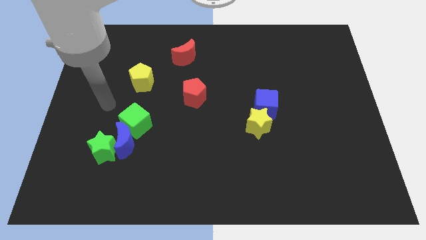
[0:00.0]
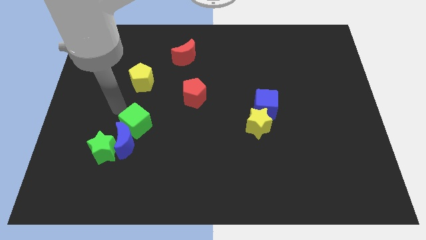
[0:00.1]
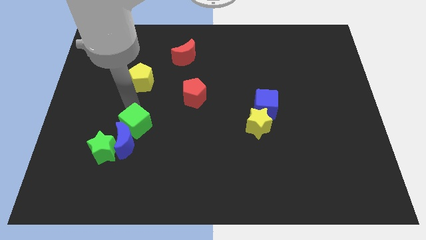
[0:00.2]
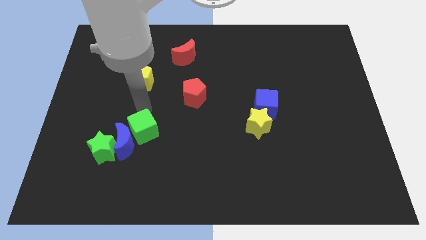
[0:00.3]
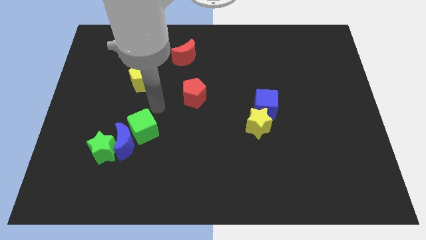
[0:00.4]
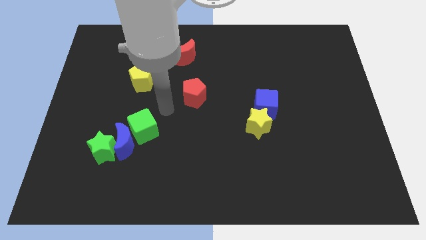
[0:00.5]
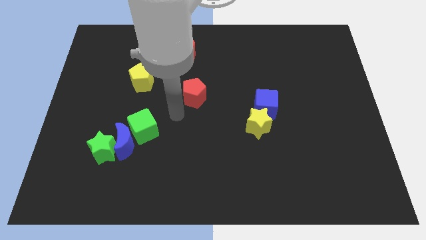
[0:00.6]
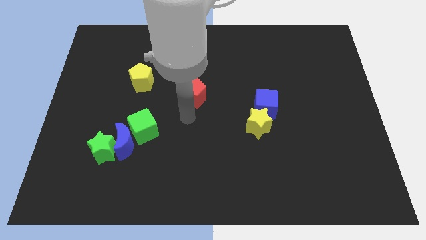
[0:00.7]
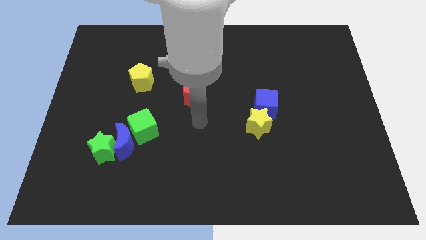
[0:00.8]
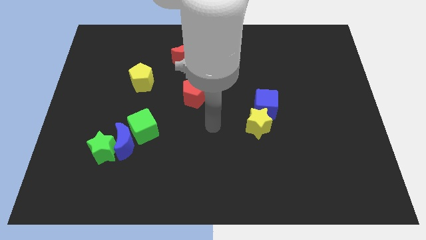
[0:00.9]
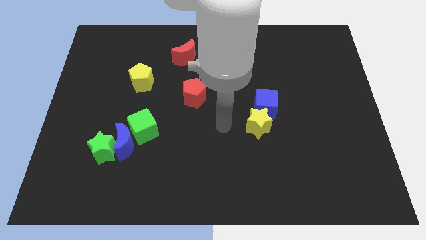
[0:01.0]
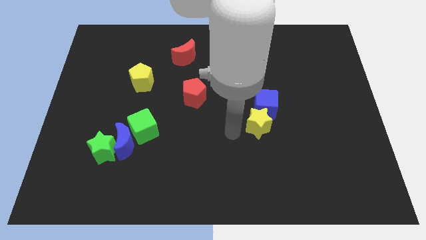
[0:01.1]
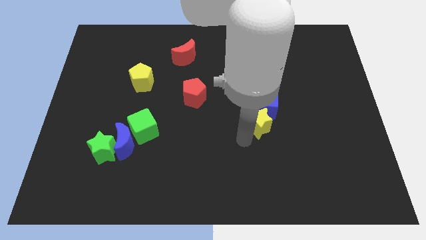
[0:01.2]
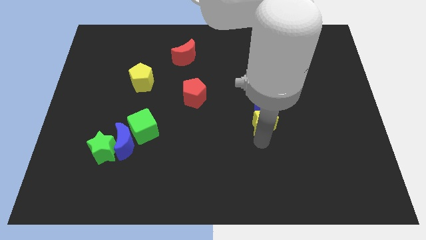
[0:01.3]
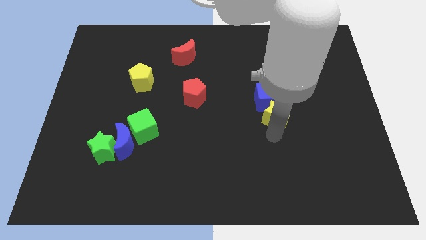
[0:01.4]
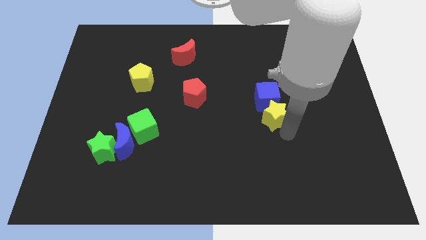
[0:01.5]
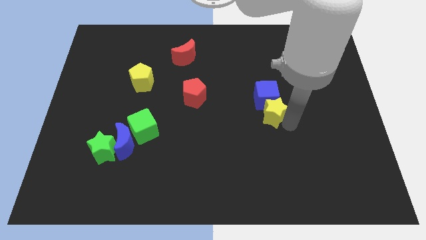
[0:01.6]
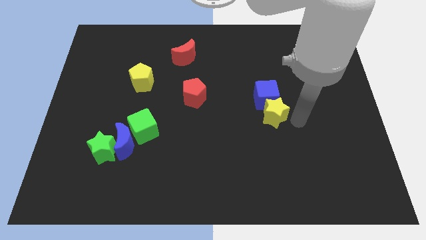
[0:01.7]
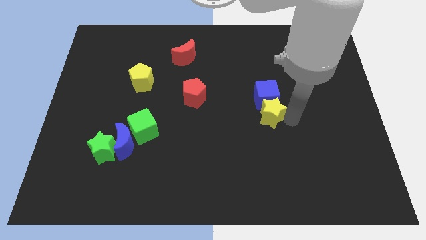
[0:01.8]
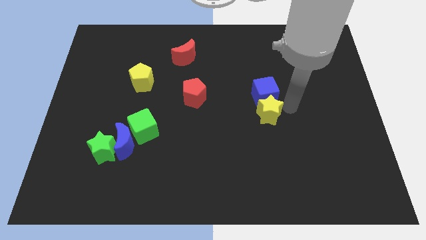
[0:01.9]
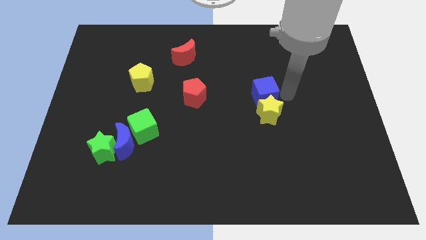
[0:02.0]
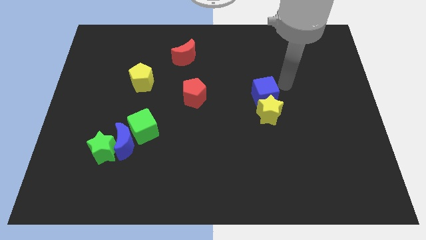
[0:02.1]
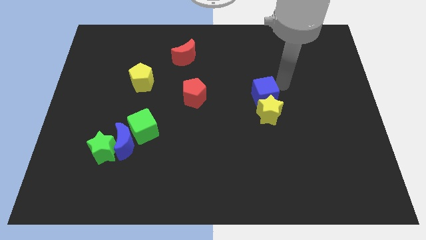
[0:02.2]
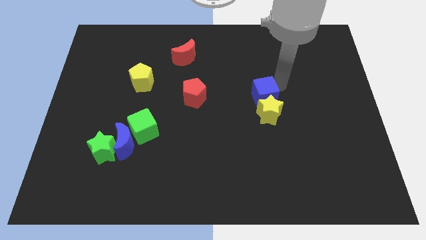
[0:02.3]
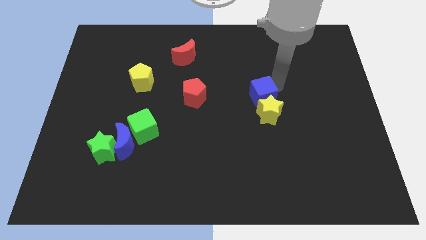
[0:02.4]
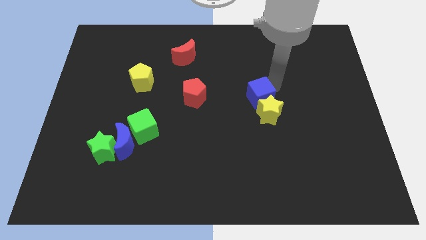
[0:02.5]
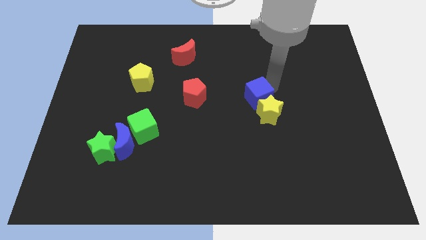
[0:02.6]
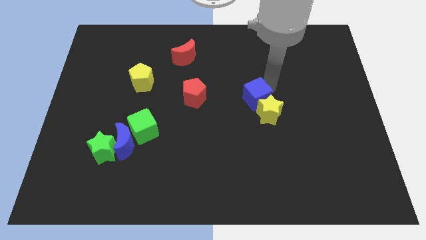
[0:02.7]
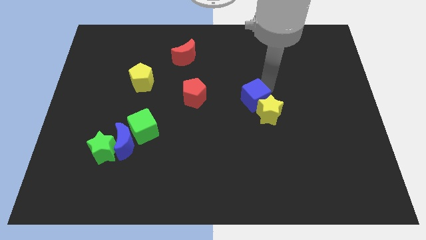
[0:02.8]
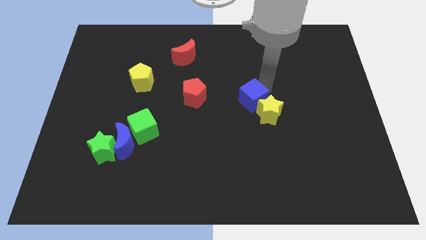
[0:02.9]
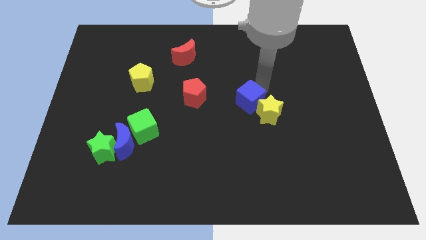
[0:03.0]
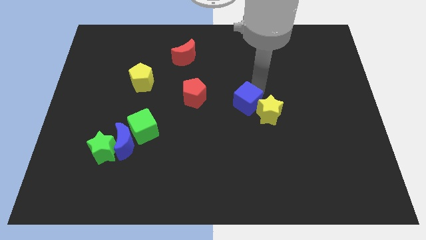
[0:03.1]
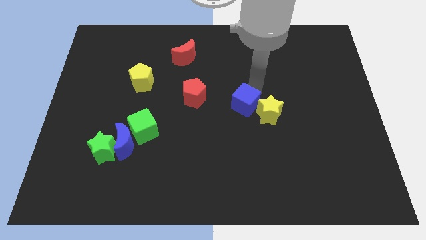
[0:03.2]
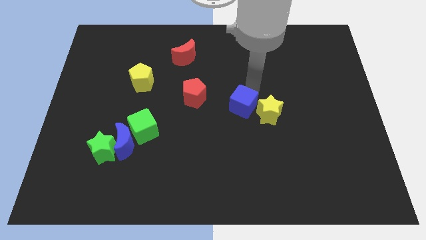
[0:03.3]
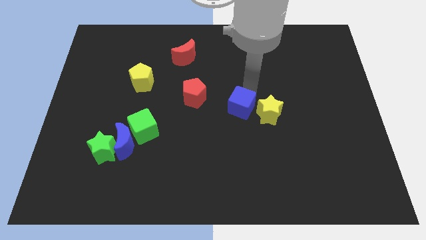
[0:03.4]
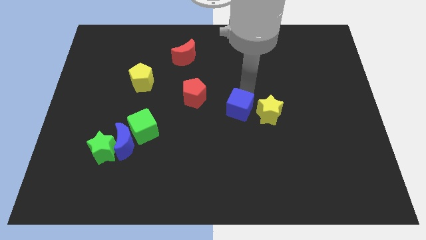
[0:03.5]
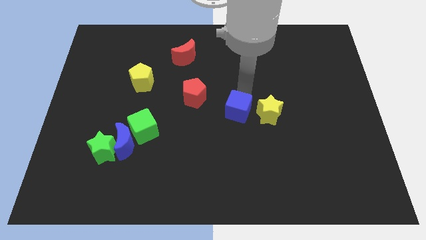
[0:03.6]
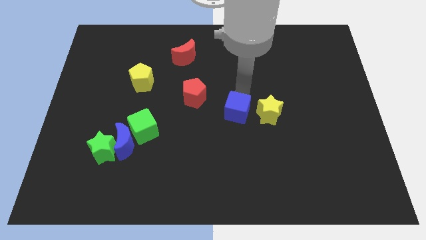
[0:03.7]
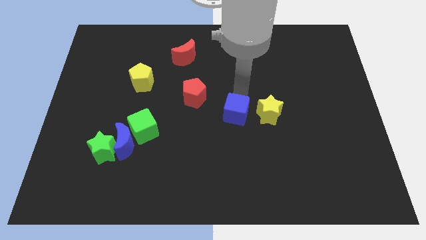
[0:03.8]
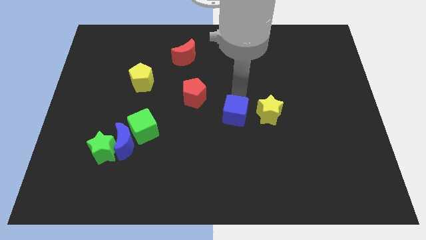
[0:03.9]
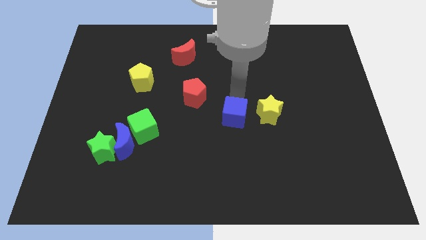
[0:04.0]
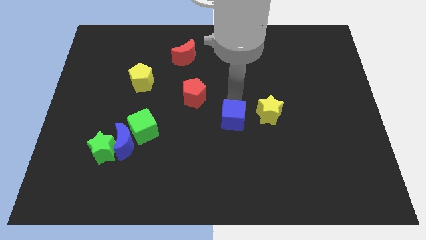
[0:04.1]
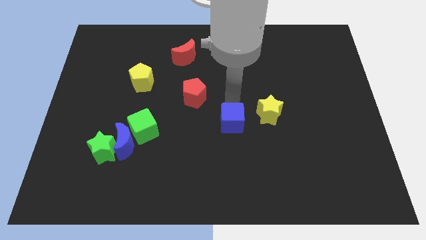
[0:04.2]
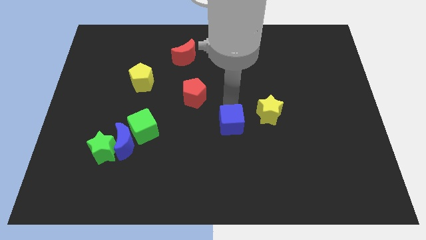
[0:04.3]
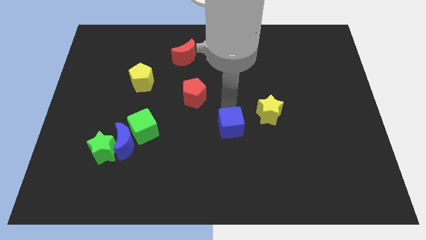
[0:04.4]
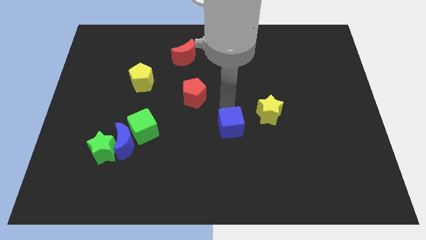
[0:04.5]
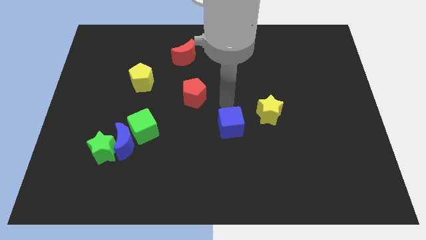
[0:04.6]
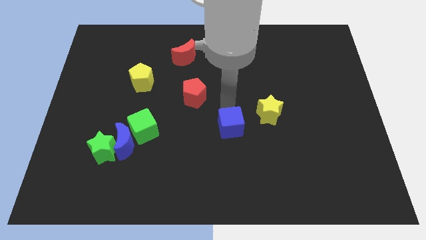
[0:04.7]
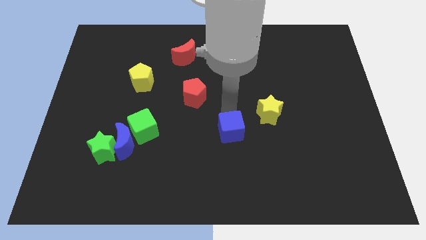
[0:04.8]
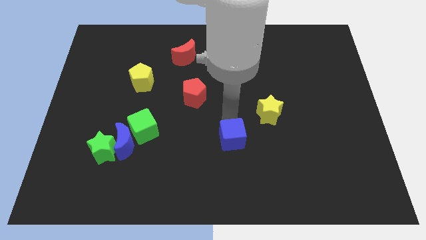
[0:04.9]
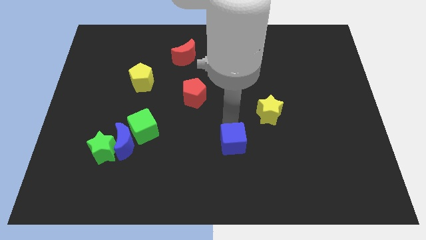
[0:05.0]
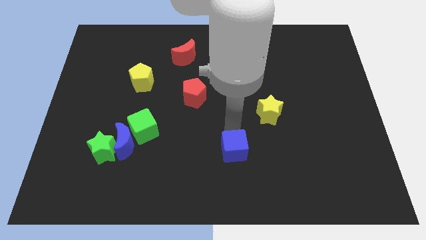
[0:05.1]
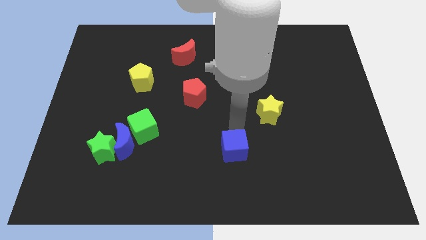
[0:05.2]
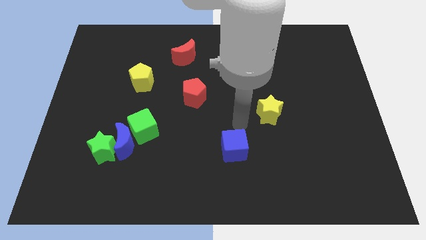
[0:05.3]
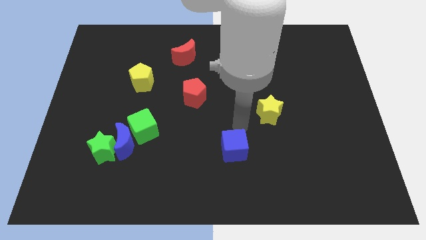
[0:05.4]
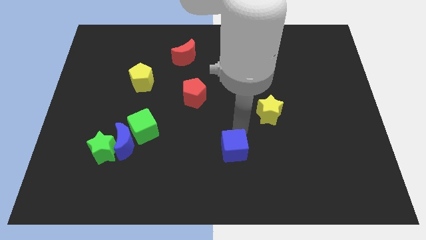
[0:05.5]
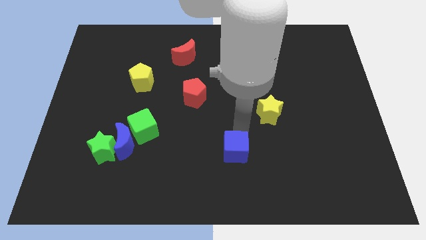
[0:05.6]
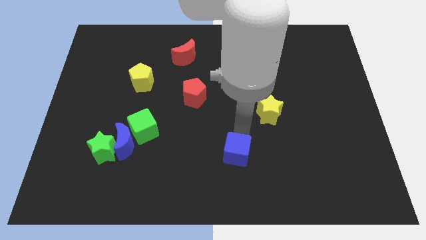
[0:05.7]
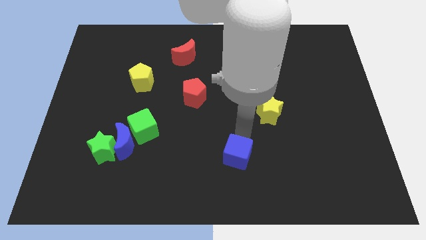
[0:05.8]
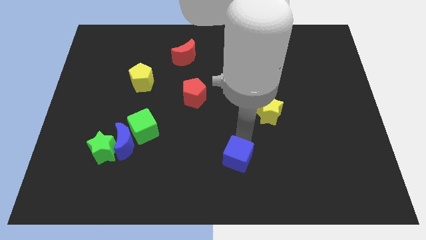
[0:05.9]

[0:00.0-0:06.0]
move the blue cube to the bottom
